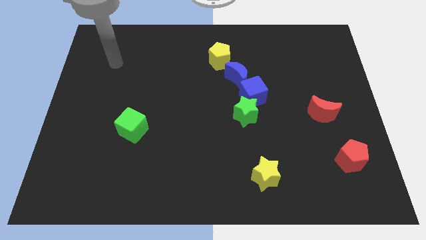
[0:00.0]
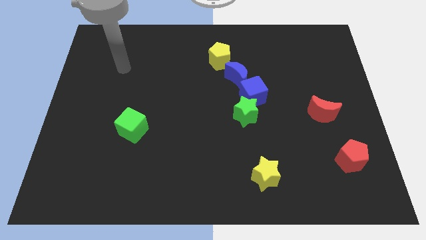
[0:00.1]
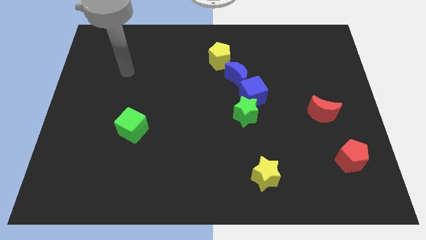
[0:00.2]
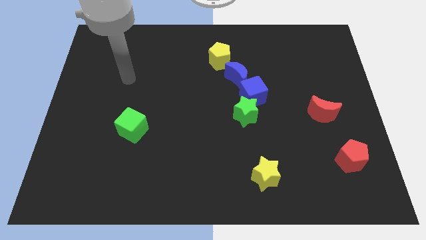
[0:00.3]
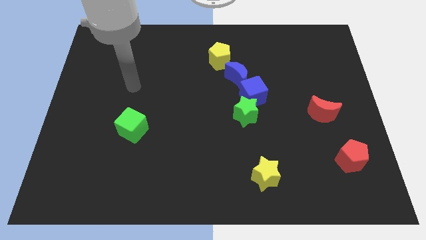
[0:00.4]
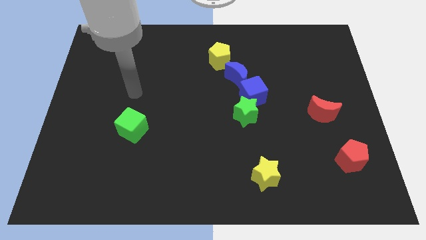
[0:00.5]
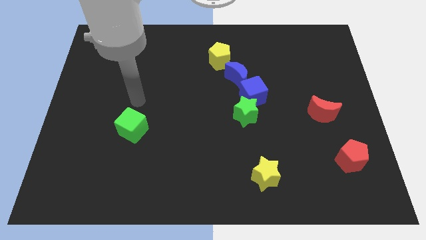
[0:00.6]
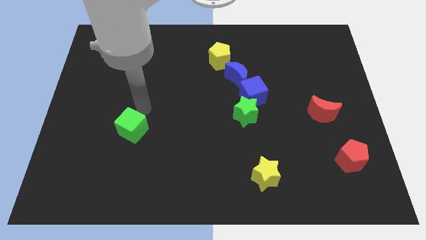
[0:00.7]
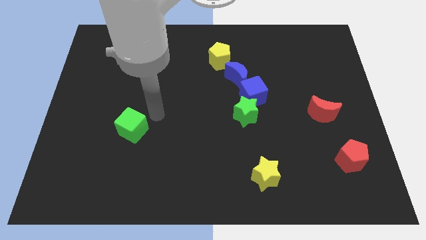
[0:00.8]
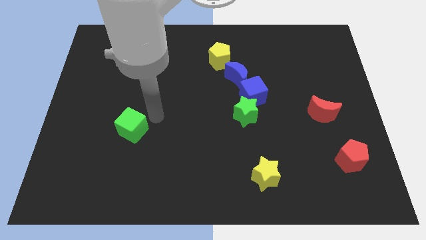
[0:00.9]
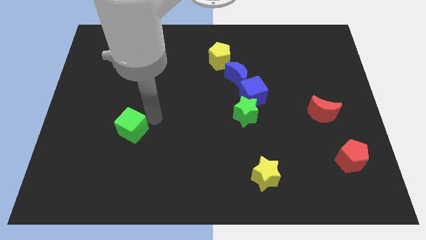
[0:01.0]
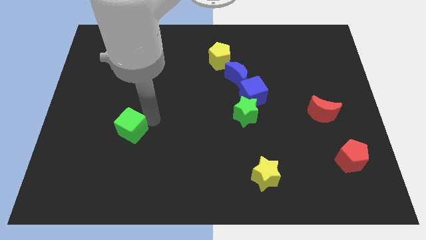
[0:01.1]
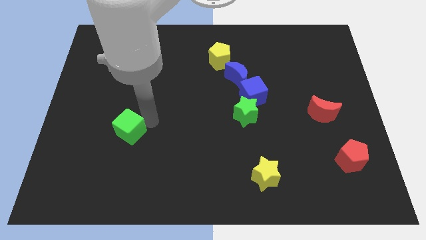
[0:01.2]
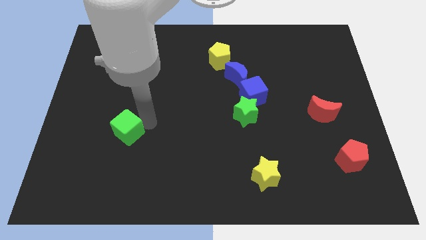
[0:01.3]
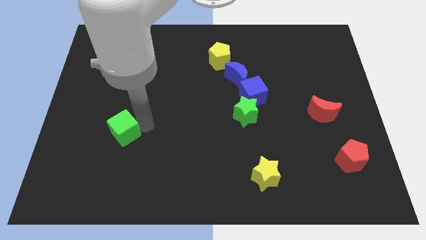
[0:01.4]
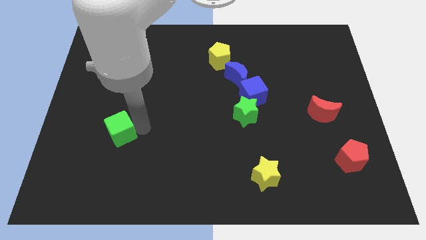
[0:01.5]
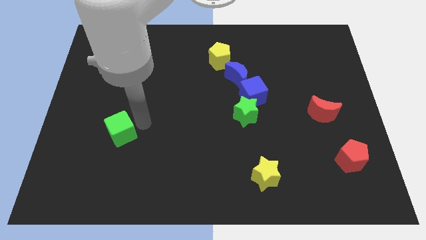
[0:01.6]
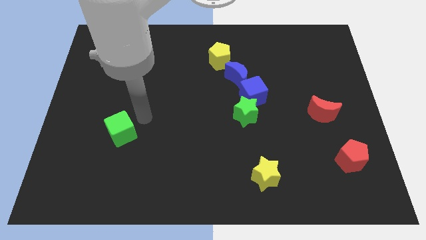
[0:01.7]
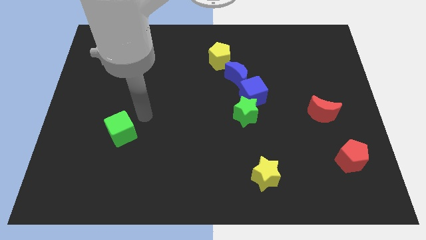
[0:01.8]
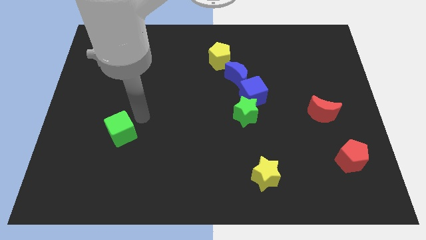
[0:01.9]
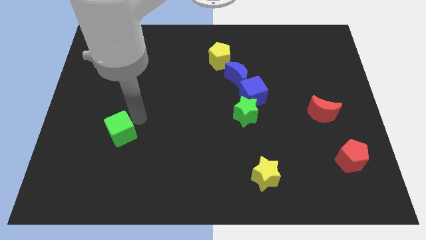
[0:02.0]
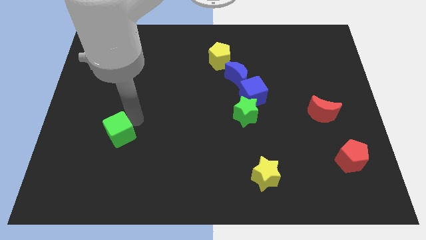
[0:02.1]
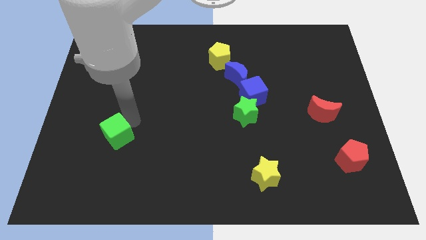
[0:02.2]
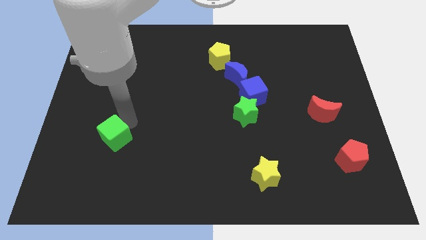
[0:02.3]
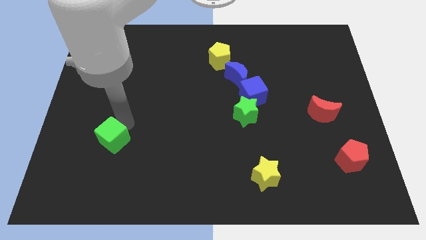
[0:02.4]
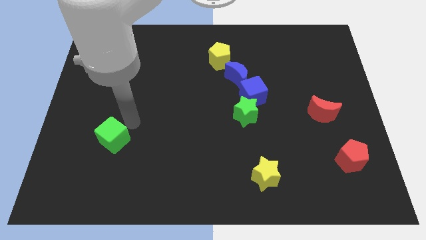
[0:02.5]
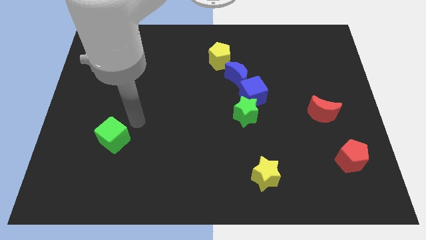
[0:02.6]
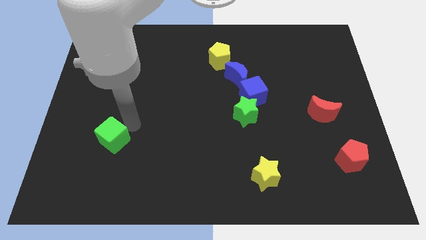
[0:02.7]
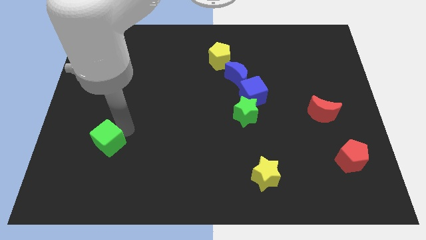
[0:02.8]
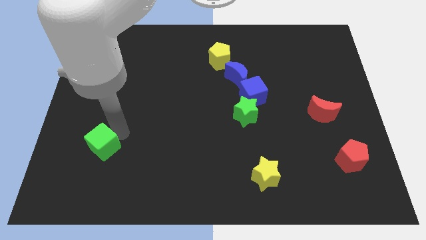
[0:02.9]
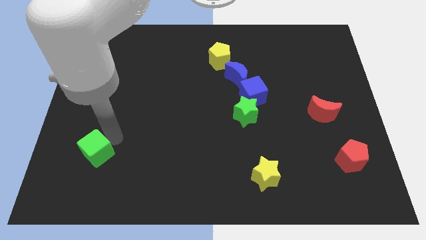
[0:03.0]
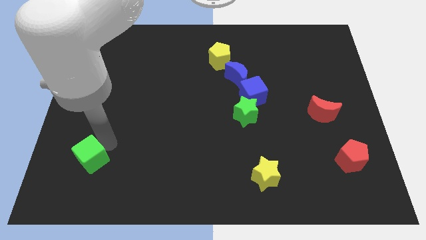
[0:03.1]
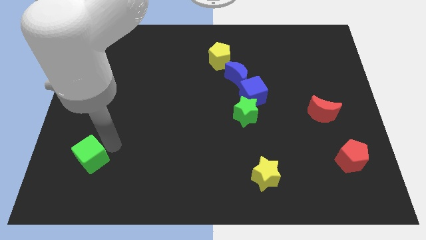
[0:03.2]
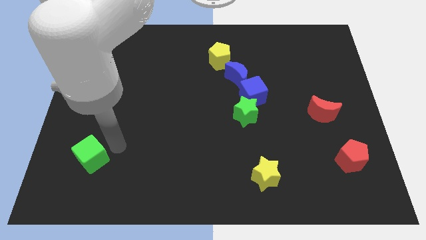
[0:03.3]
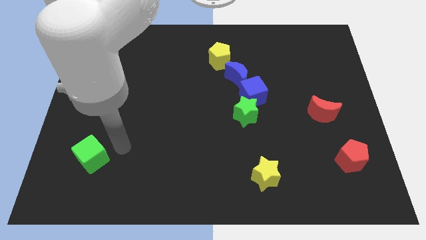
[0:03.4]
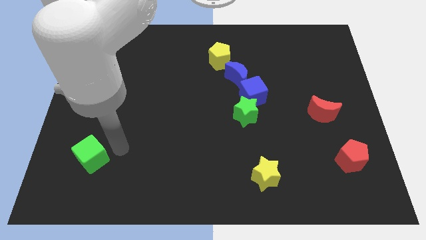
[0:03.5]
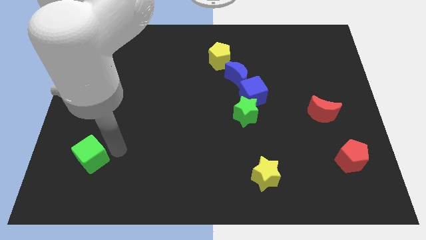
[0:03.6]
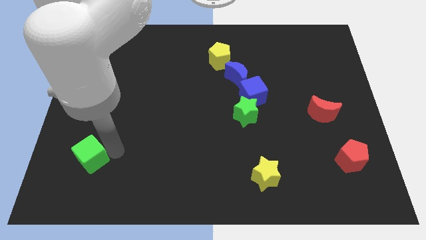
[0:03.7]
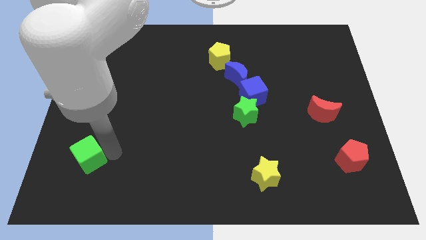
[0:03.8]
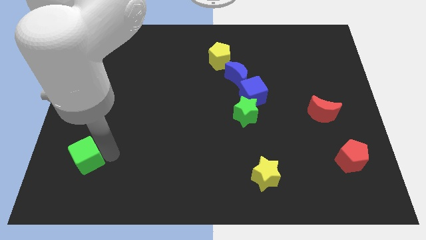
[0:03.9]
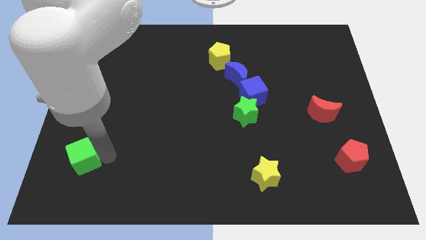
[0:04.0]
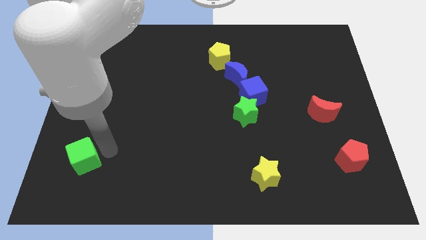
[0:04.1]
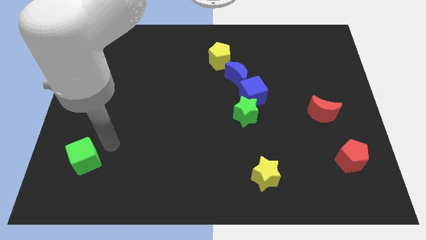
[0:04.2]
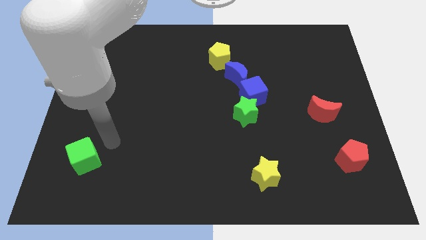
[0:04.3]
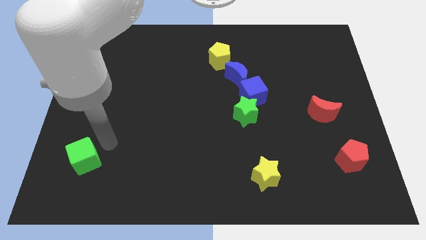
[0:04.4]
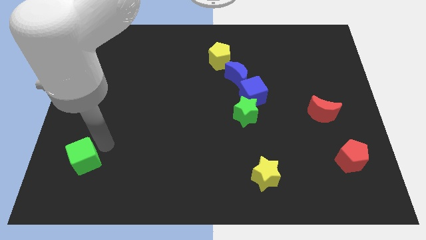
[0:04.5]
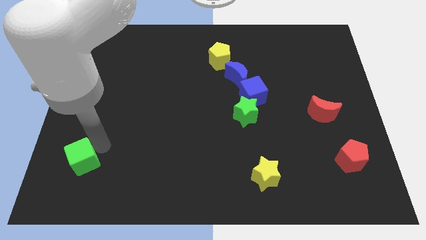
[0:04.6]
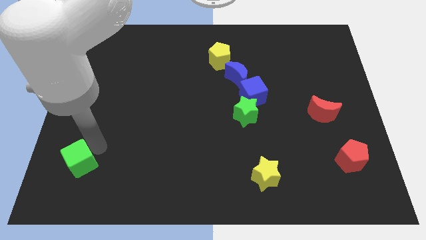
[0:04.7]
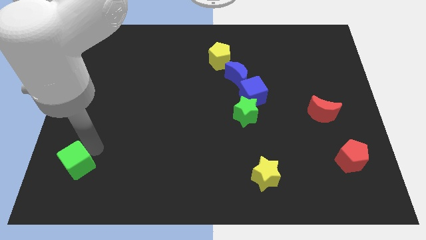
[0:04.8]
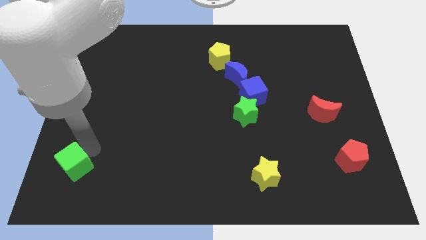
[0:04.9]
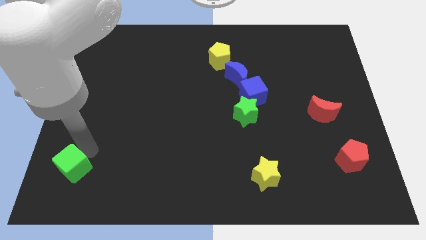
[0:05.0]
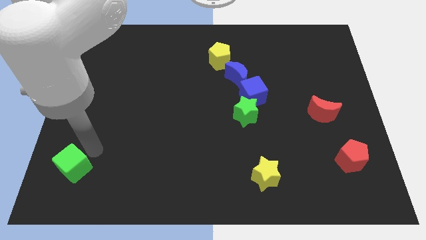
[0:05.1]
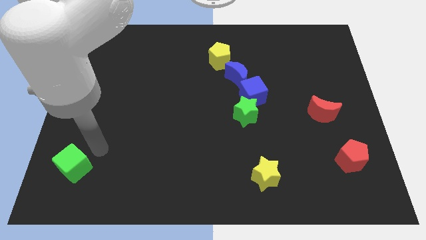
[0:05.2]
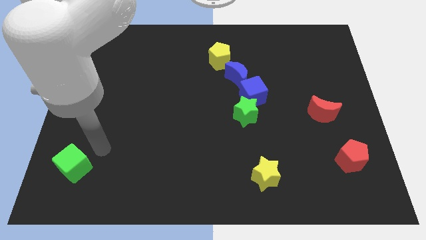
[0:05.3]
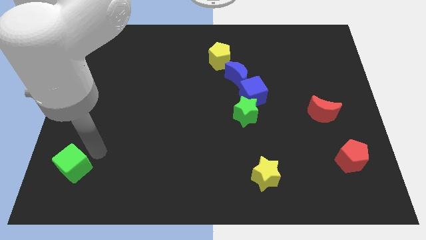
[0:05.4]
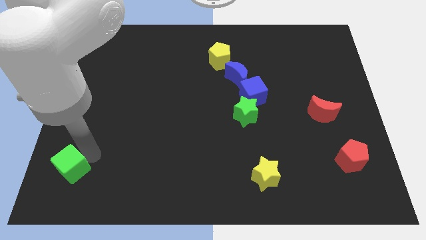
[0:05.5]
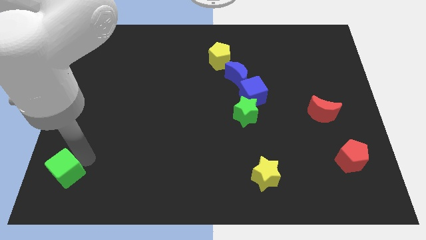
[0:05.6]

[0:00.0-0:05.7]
move the green cube to the lower left corner

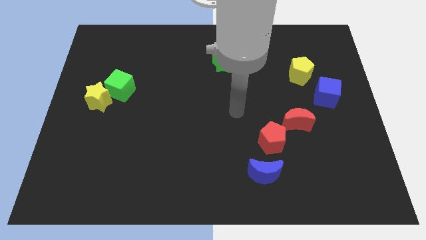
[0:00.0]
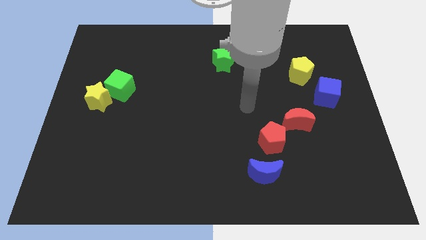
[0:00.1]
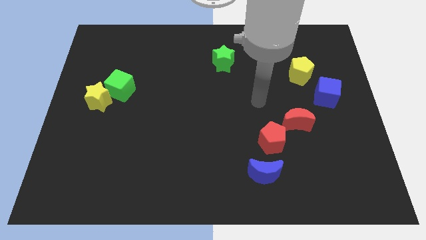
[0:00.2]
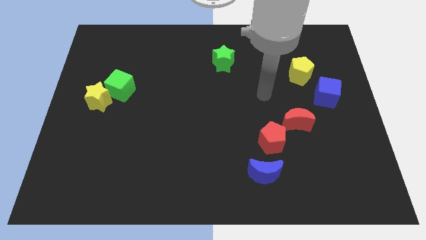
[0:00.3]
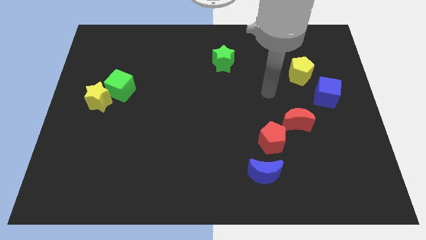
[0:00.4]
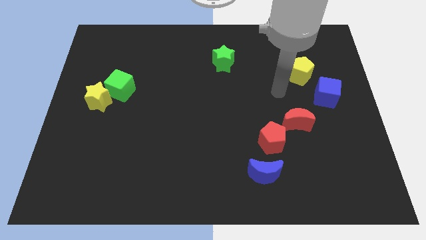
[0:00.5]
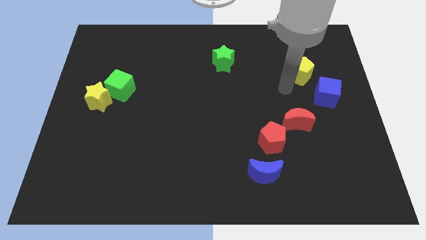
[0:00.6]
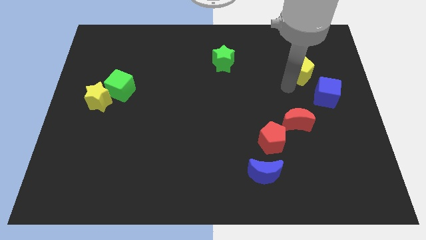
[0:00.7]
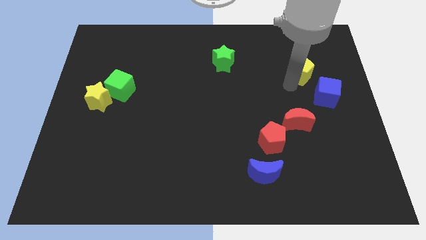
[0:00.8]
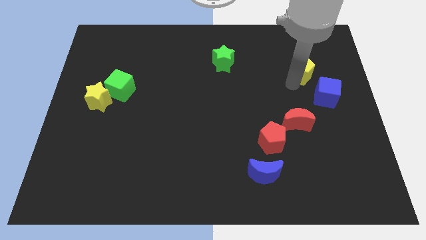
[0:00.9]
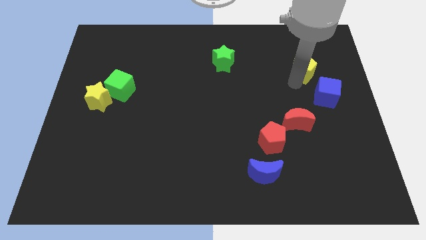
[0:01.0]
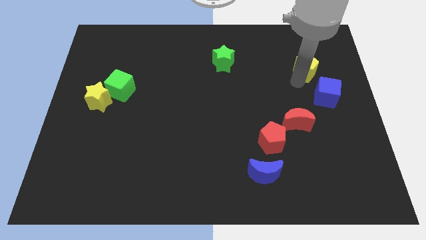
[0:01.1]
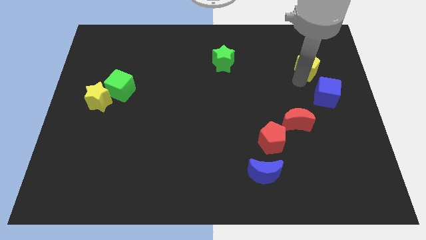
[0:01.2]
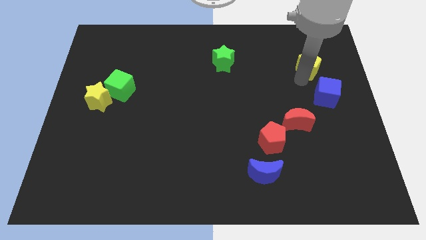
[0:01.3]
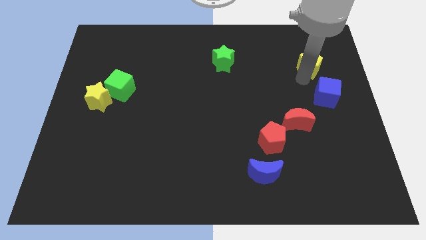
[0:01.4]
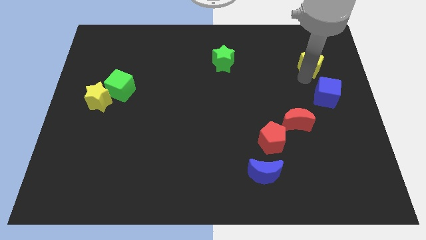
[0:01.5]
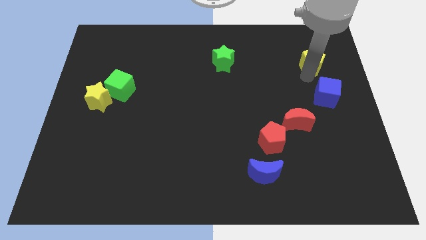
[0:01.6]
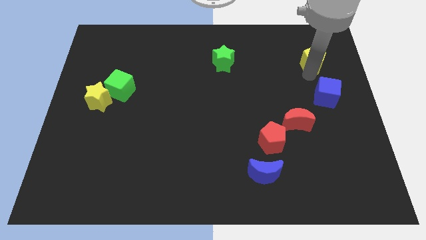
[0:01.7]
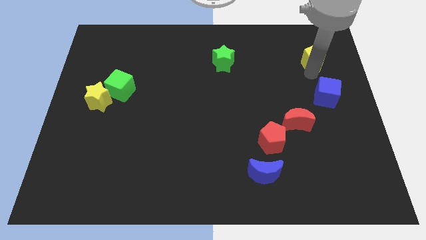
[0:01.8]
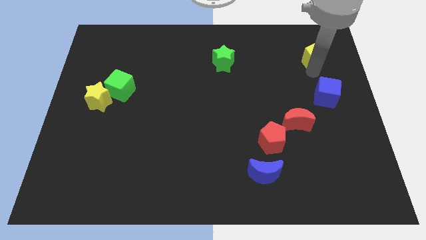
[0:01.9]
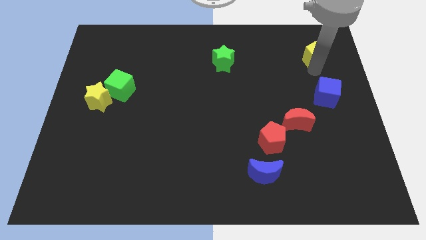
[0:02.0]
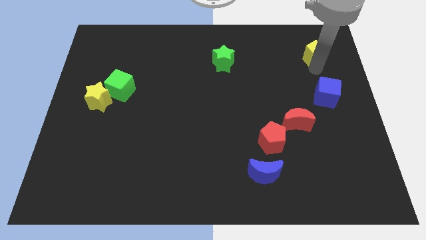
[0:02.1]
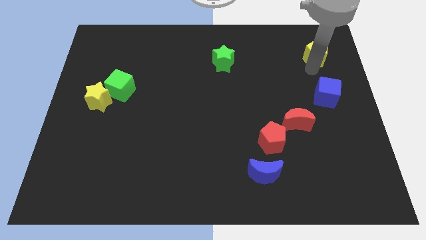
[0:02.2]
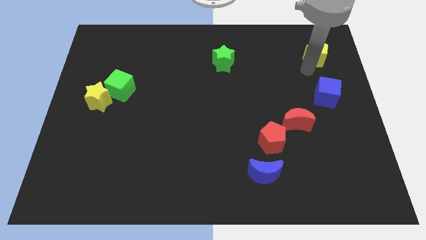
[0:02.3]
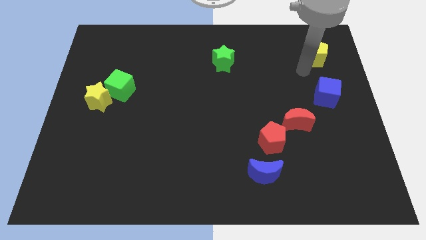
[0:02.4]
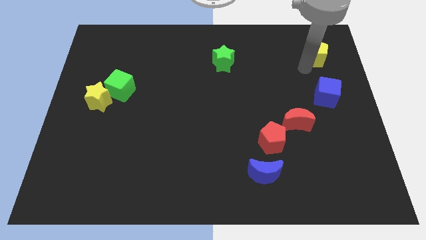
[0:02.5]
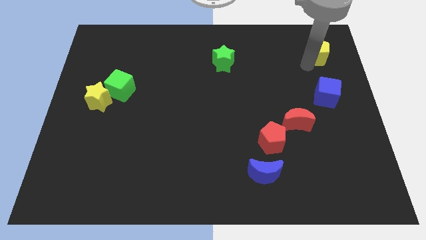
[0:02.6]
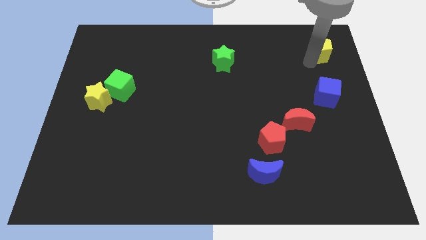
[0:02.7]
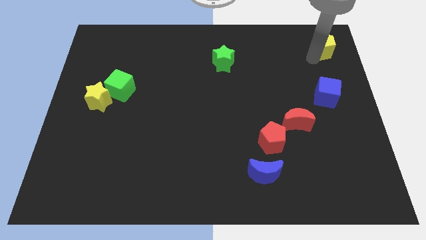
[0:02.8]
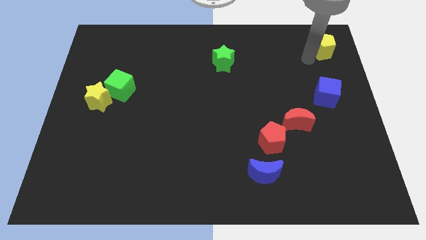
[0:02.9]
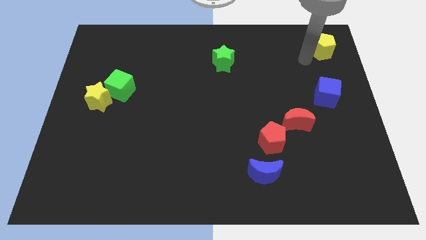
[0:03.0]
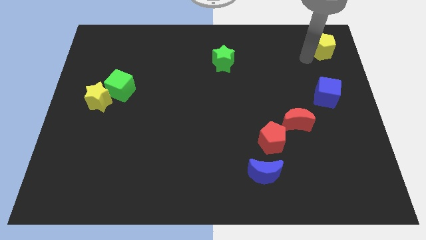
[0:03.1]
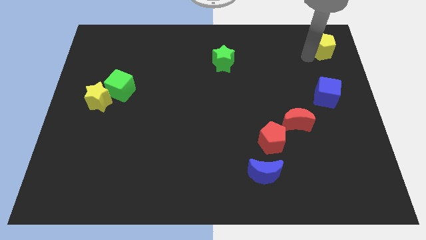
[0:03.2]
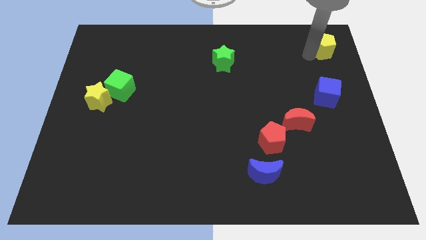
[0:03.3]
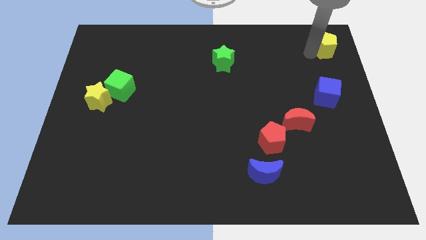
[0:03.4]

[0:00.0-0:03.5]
move the yellow pentagon to the upper right corner
